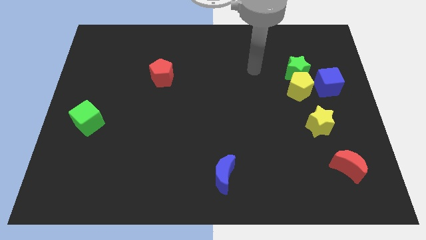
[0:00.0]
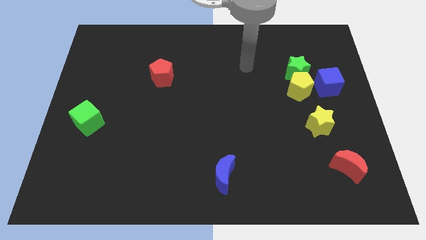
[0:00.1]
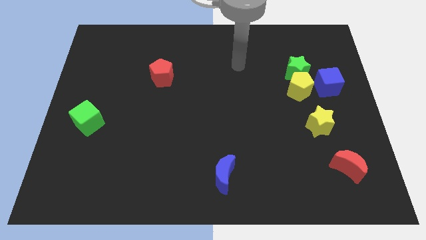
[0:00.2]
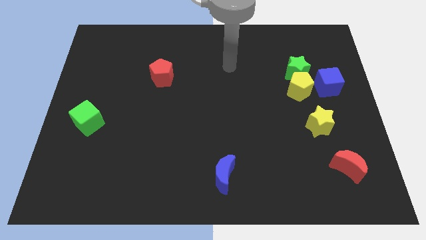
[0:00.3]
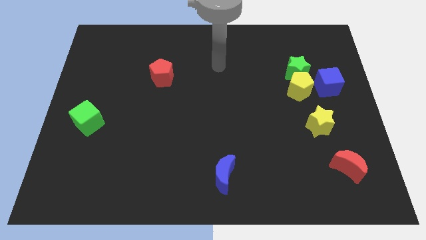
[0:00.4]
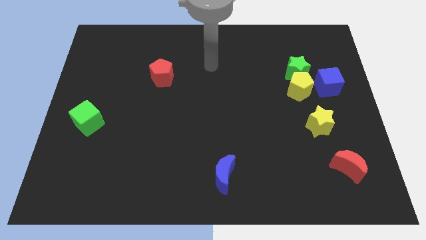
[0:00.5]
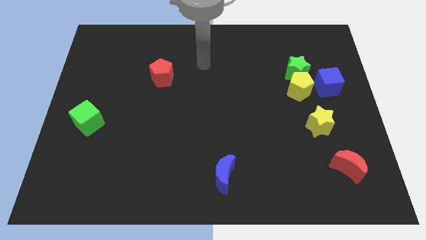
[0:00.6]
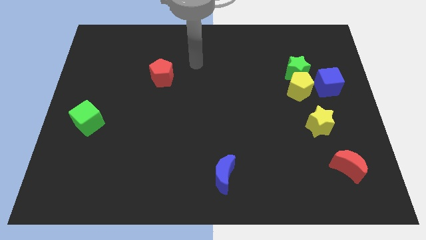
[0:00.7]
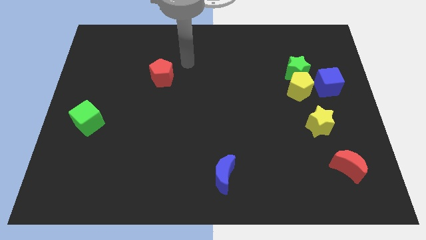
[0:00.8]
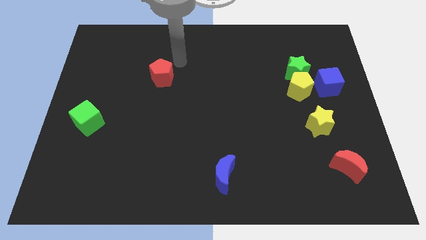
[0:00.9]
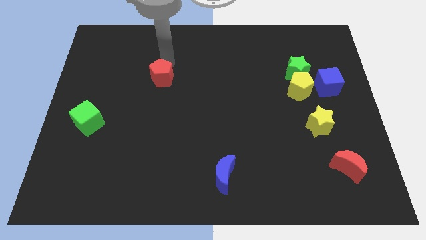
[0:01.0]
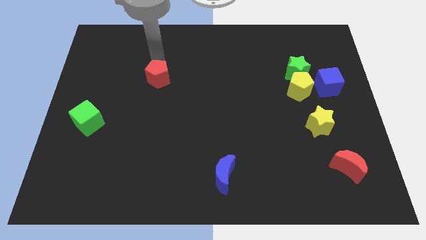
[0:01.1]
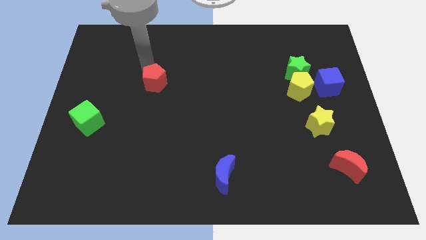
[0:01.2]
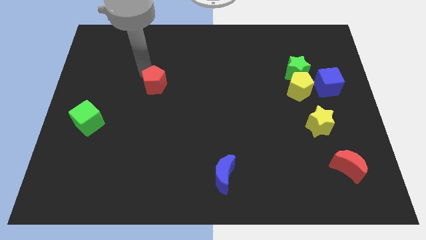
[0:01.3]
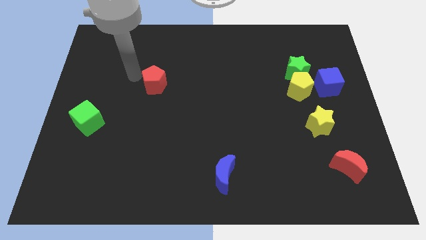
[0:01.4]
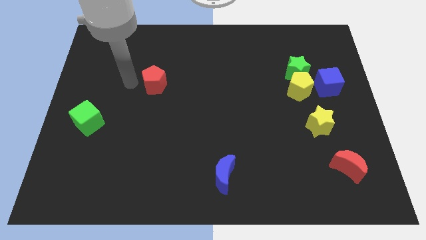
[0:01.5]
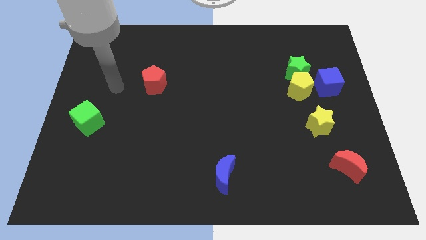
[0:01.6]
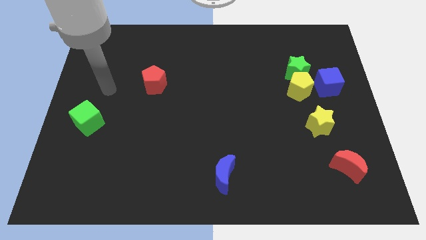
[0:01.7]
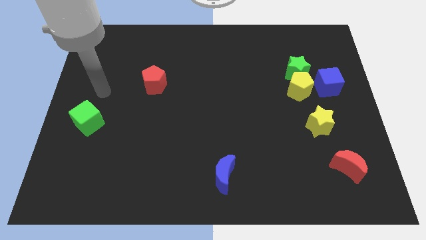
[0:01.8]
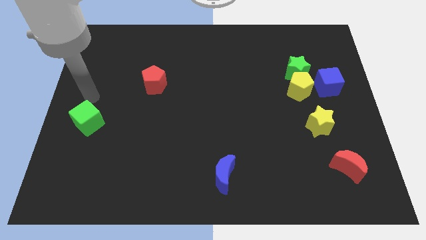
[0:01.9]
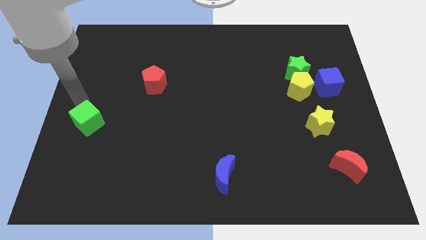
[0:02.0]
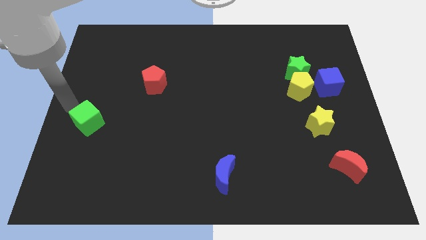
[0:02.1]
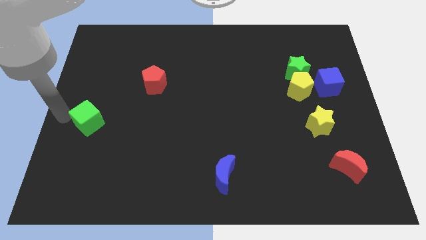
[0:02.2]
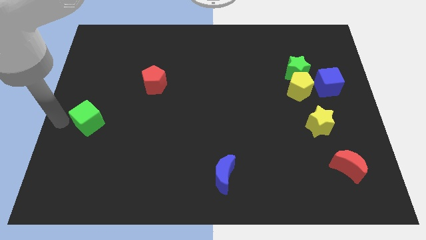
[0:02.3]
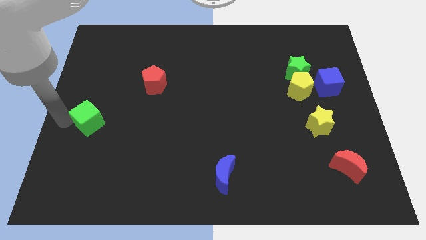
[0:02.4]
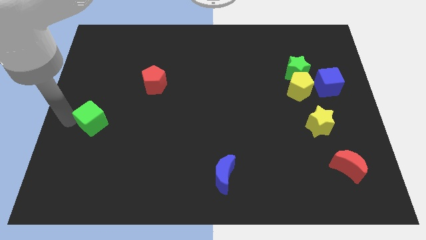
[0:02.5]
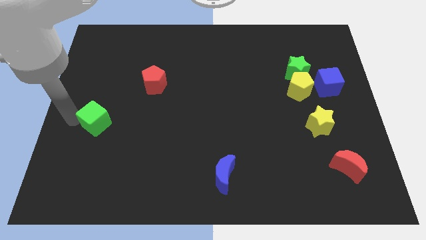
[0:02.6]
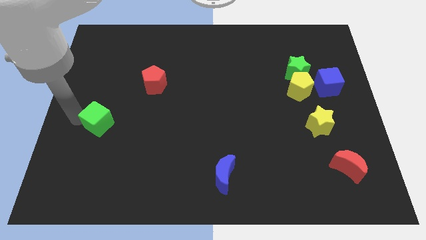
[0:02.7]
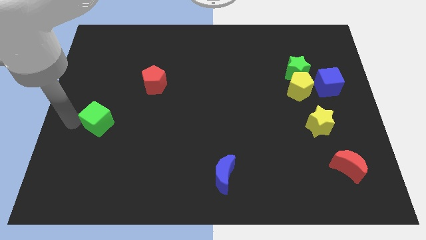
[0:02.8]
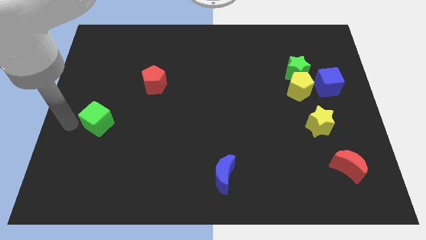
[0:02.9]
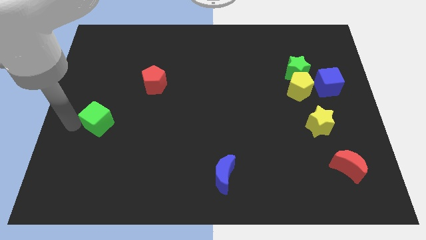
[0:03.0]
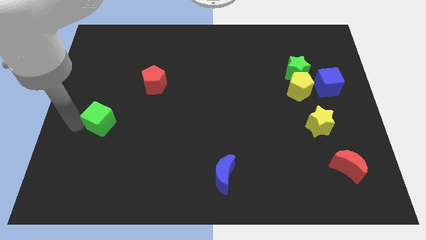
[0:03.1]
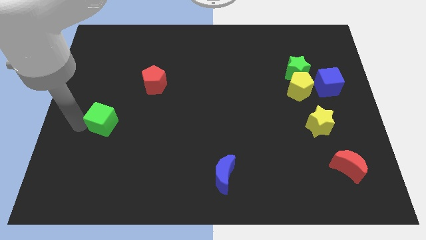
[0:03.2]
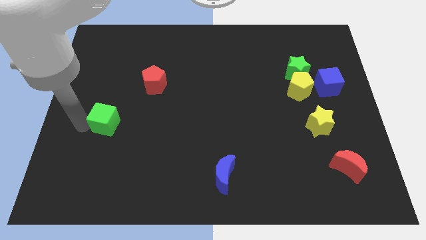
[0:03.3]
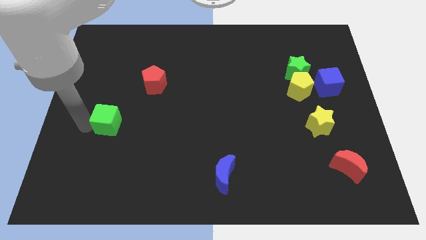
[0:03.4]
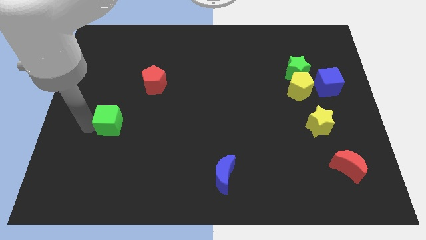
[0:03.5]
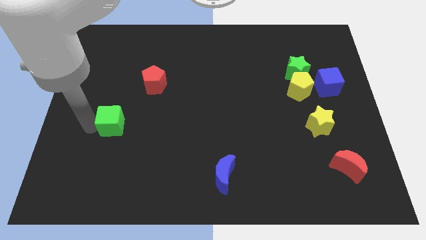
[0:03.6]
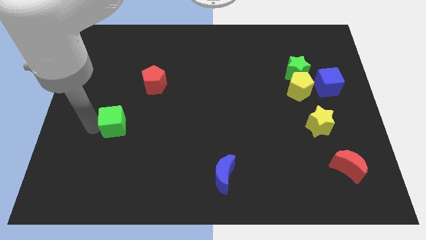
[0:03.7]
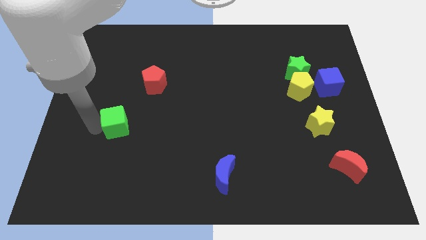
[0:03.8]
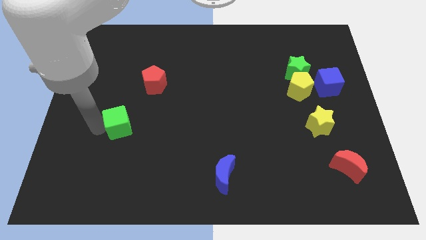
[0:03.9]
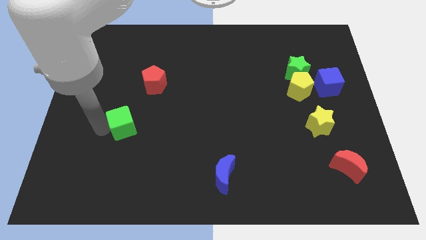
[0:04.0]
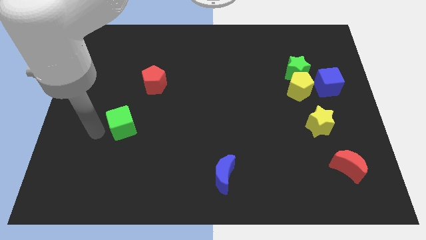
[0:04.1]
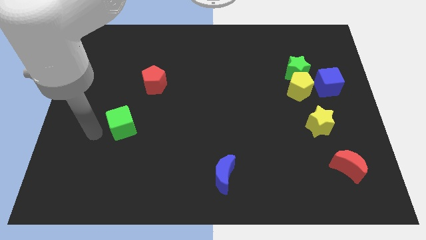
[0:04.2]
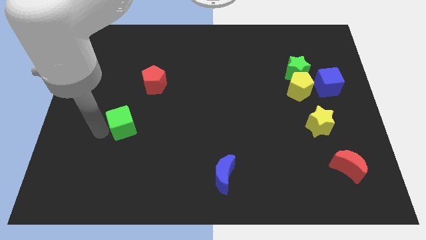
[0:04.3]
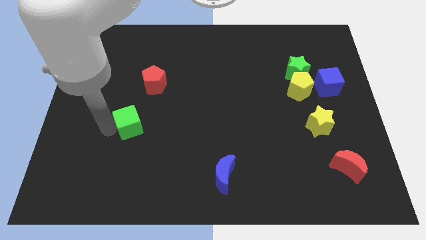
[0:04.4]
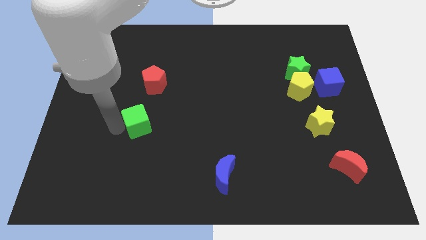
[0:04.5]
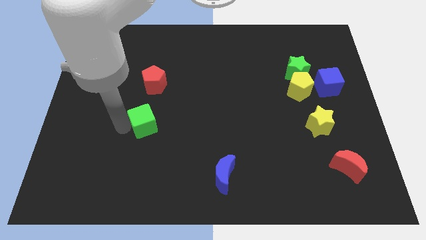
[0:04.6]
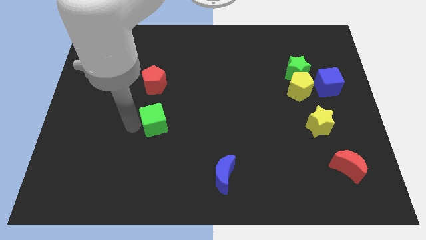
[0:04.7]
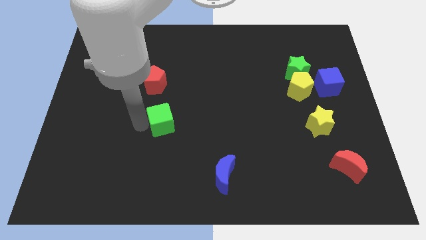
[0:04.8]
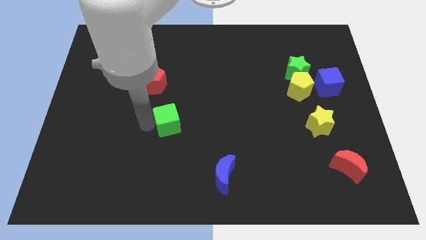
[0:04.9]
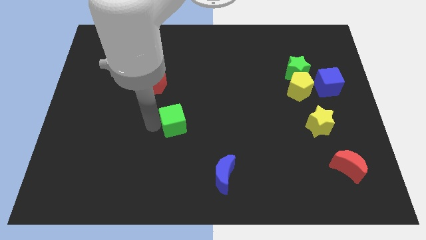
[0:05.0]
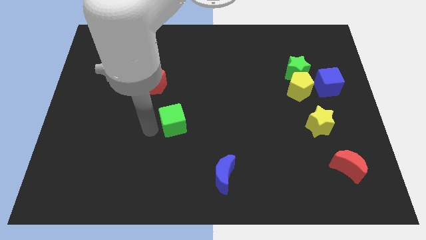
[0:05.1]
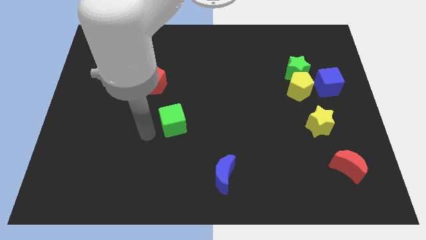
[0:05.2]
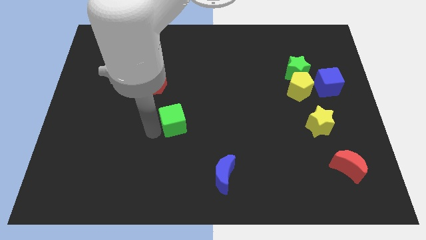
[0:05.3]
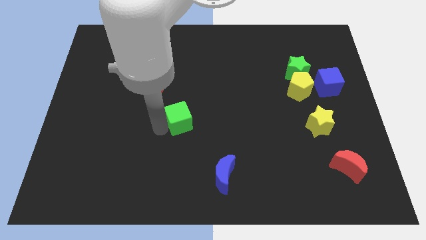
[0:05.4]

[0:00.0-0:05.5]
push the green cube to the right

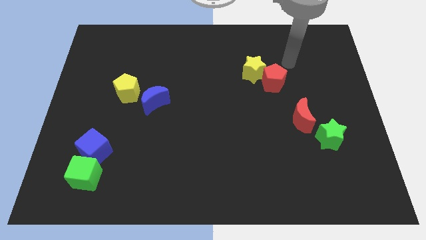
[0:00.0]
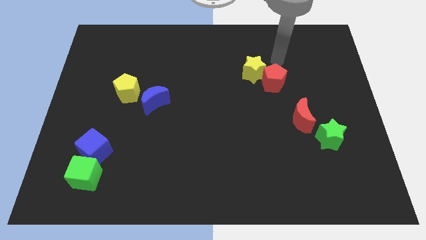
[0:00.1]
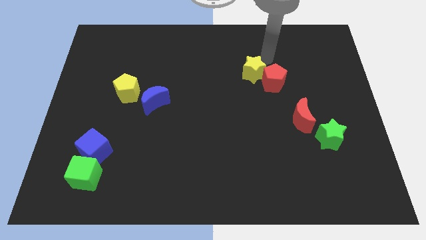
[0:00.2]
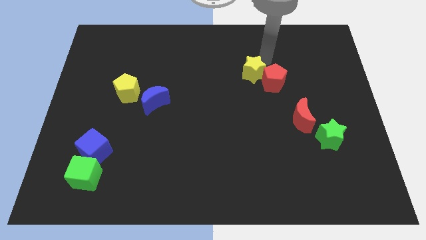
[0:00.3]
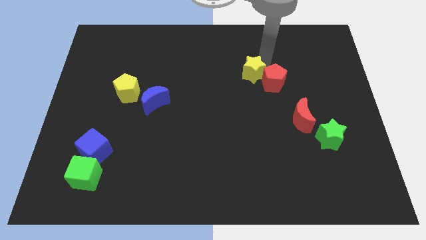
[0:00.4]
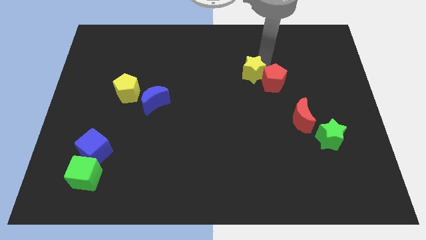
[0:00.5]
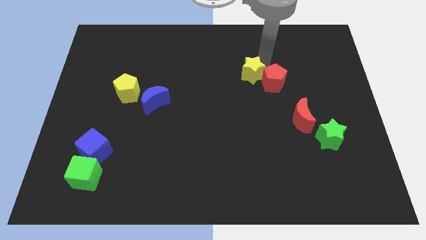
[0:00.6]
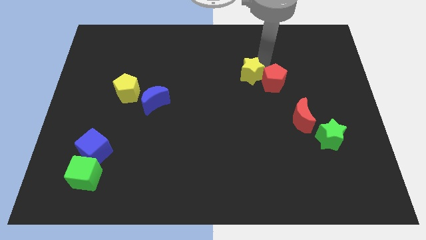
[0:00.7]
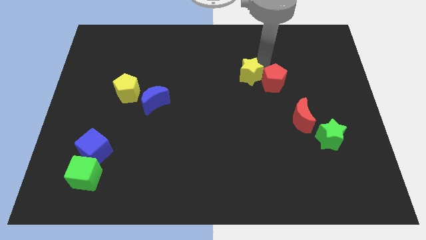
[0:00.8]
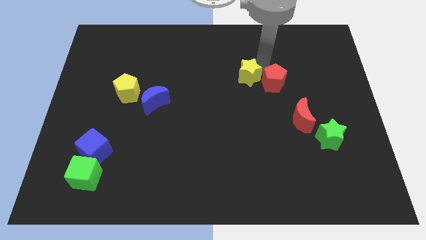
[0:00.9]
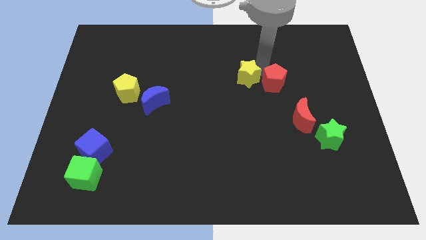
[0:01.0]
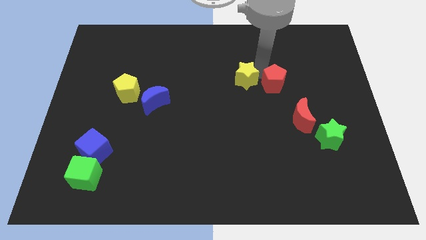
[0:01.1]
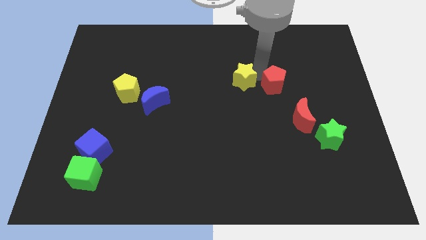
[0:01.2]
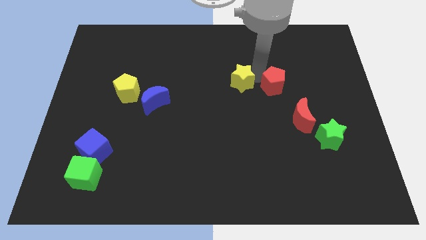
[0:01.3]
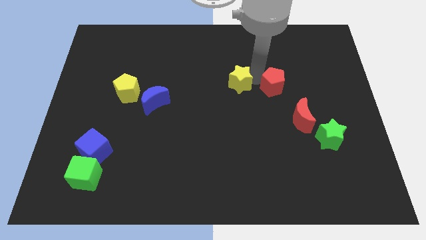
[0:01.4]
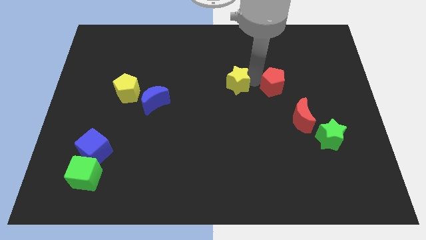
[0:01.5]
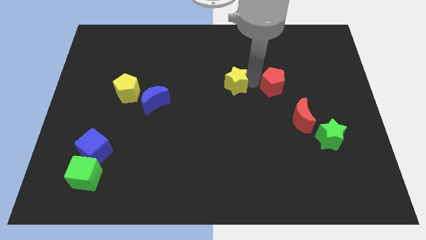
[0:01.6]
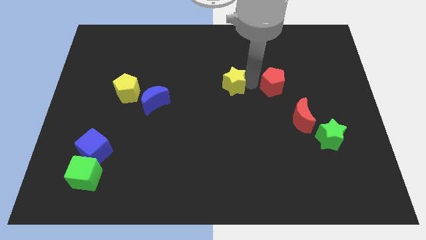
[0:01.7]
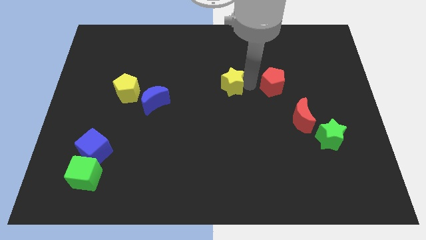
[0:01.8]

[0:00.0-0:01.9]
move the yellow star downwards and left a little

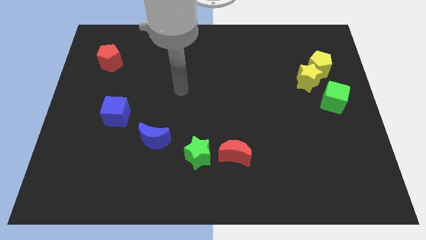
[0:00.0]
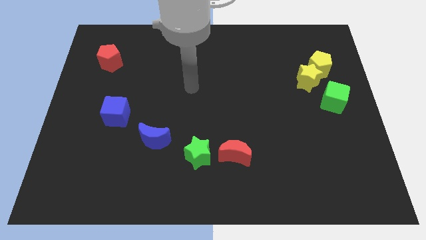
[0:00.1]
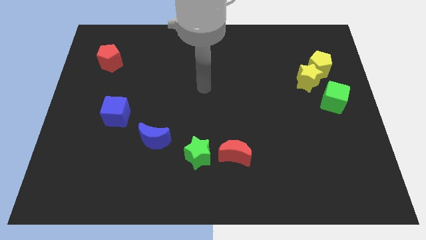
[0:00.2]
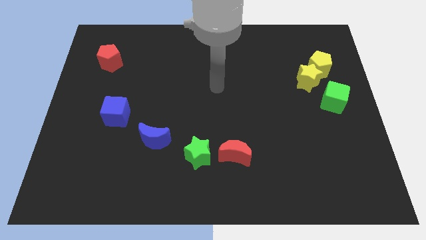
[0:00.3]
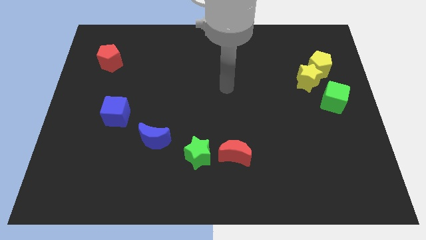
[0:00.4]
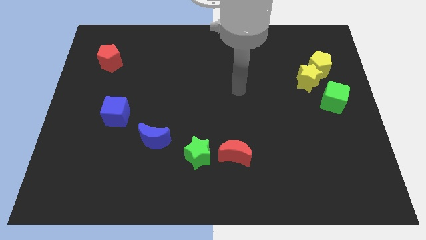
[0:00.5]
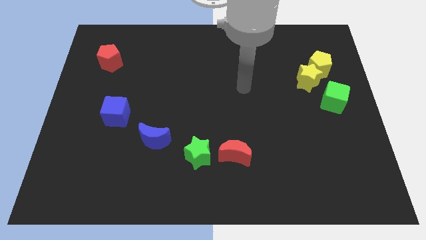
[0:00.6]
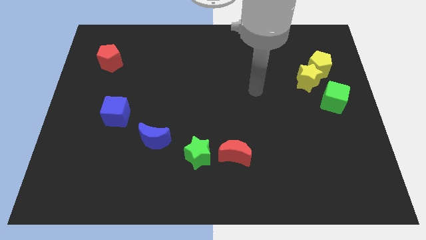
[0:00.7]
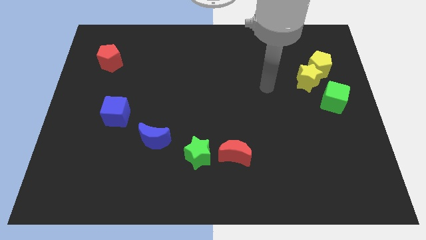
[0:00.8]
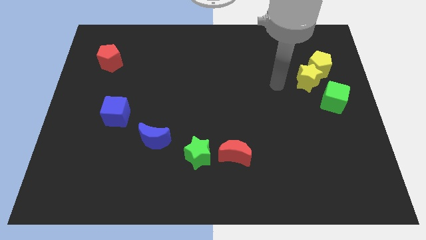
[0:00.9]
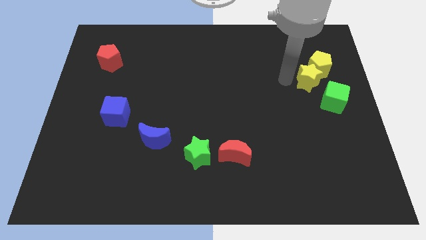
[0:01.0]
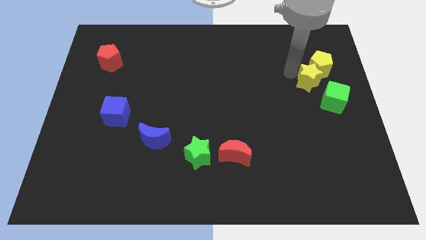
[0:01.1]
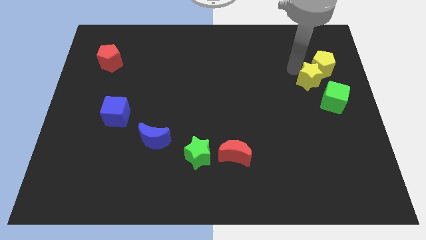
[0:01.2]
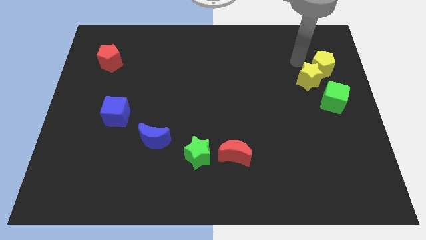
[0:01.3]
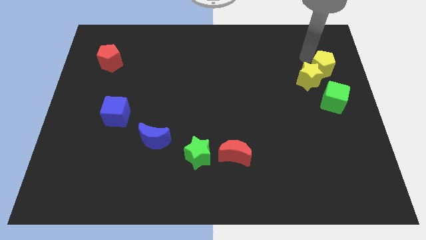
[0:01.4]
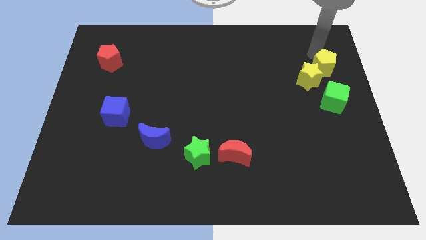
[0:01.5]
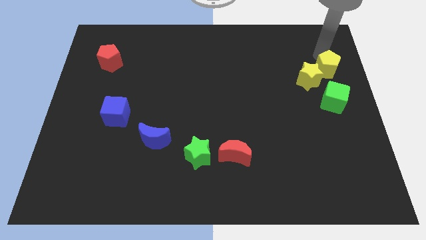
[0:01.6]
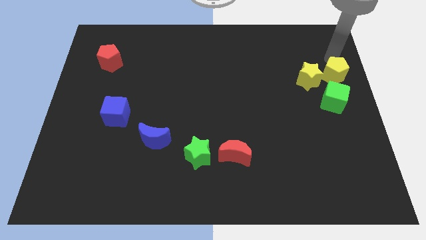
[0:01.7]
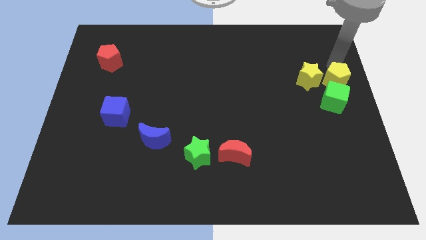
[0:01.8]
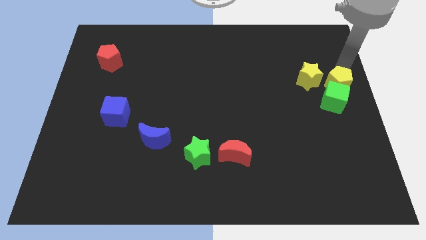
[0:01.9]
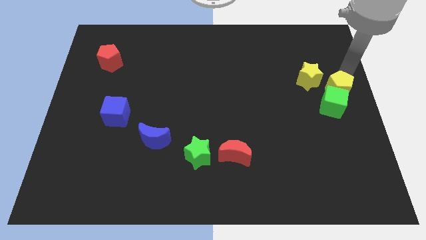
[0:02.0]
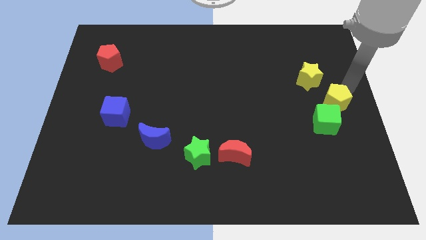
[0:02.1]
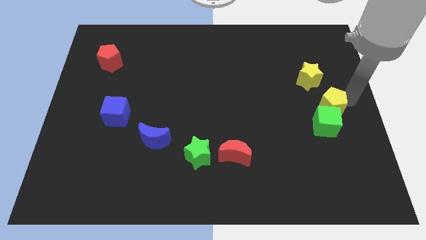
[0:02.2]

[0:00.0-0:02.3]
slightly slide the green cube downwards and to the left diagonally
